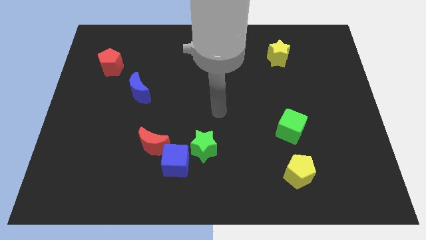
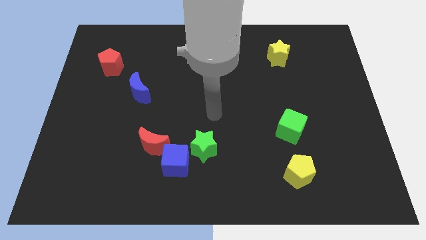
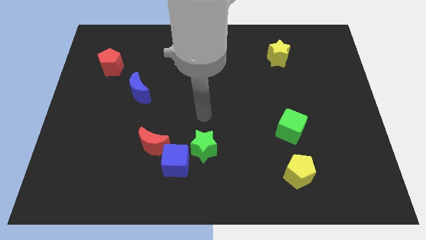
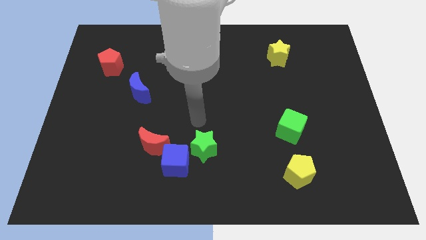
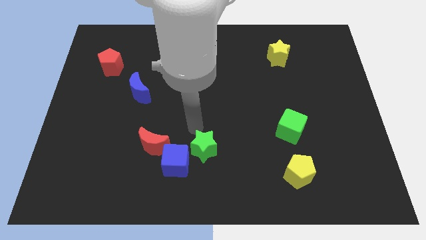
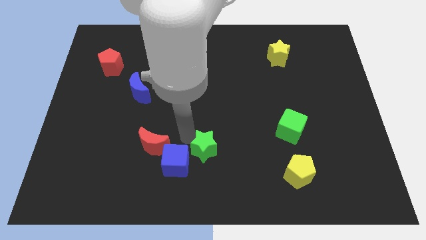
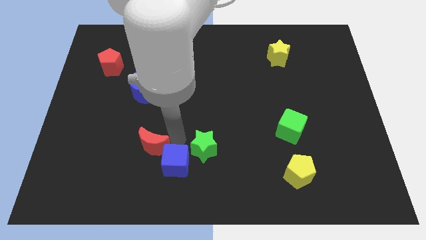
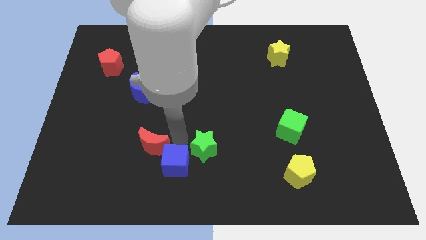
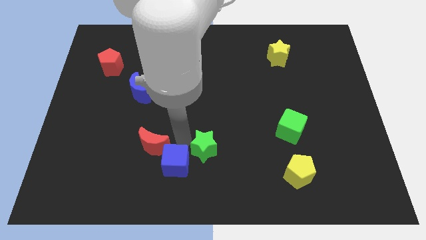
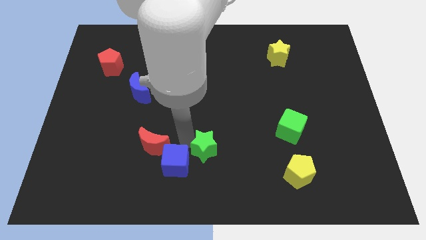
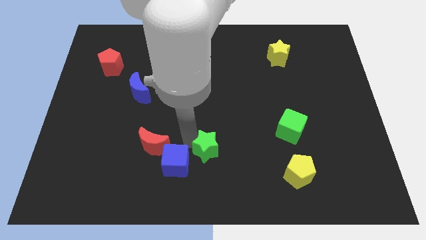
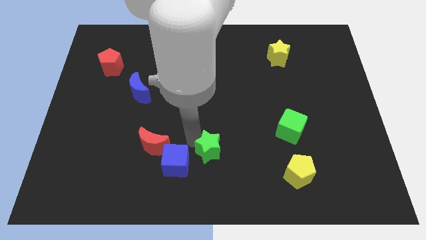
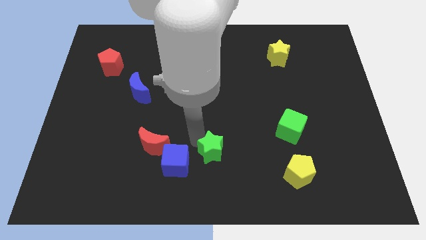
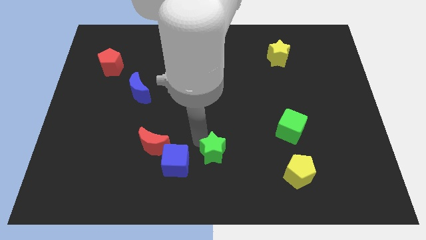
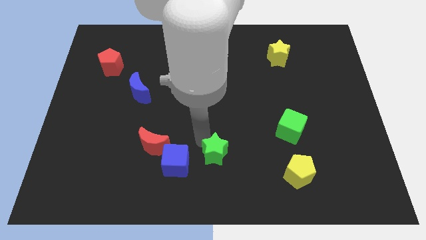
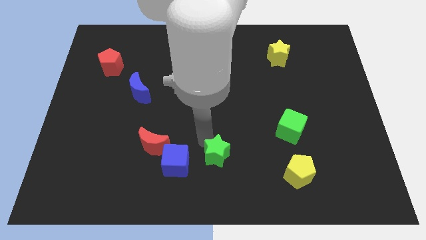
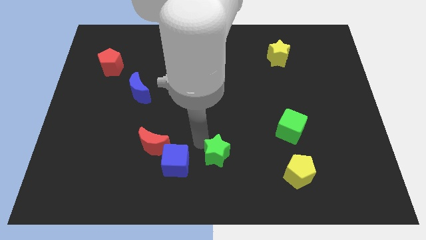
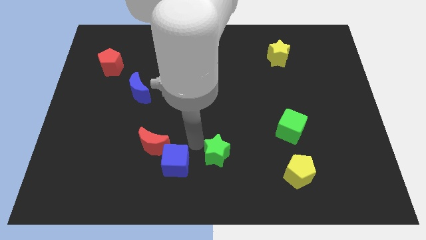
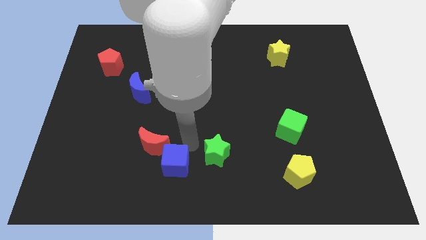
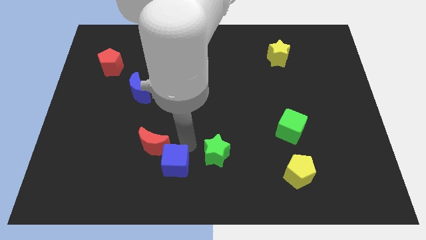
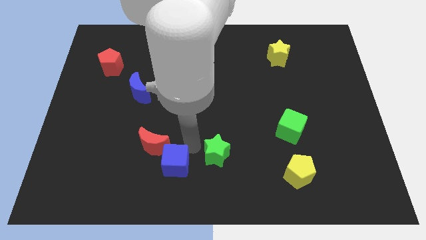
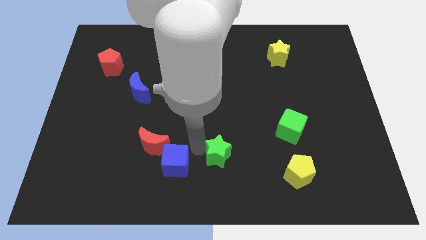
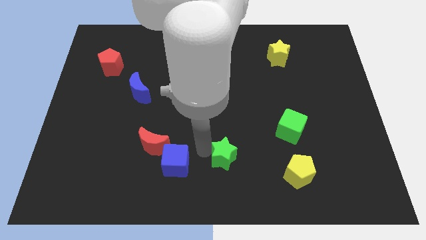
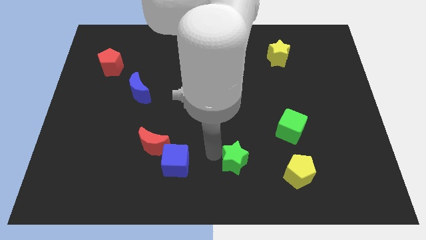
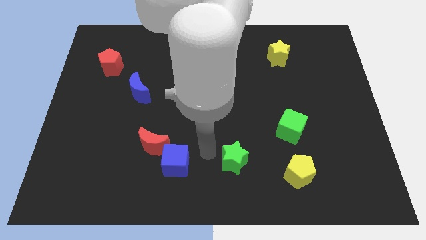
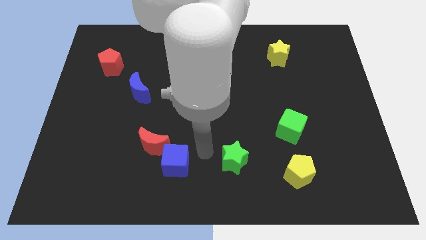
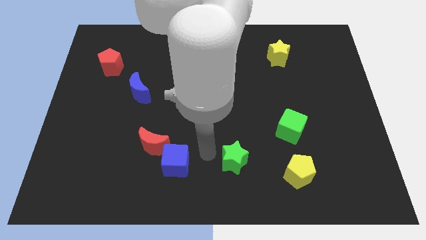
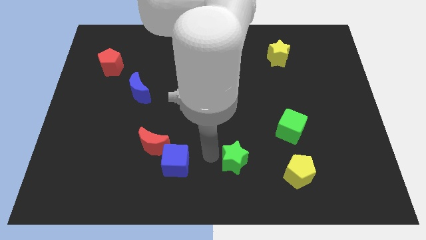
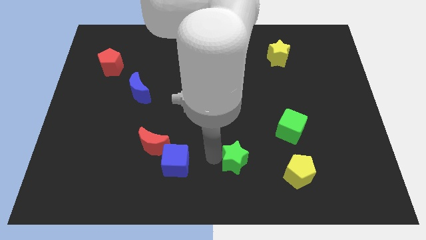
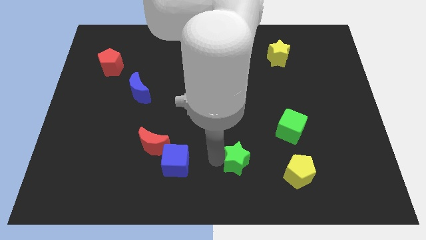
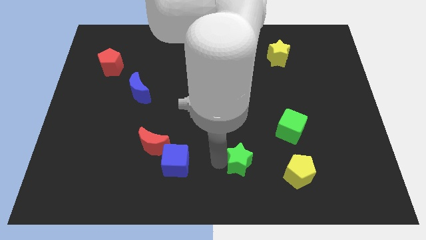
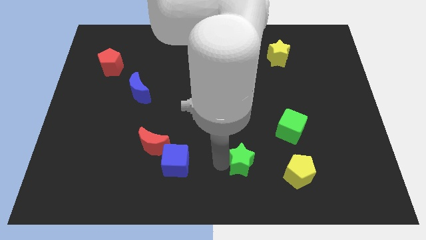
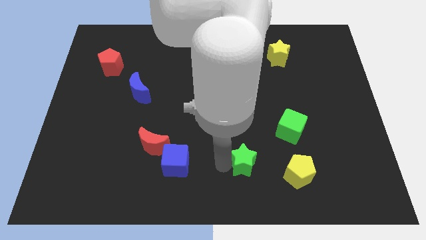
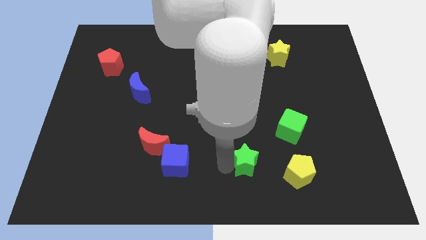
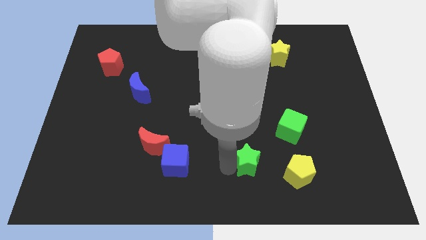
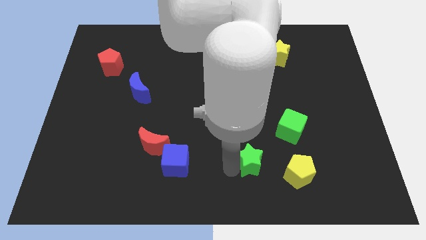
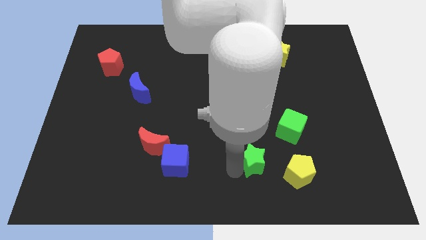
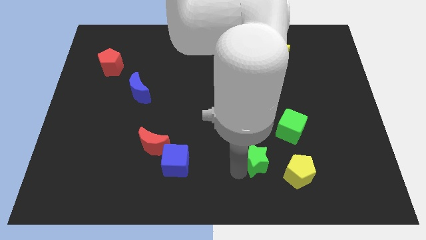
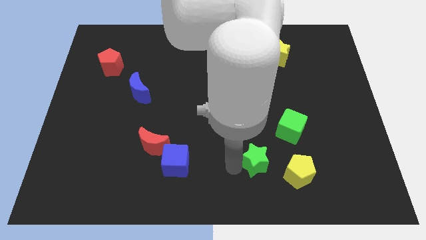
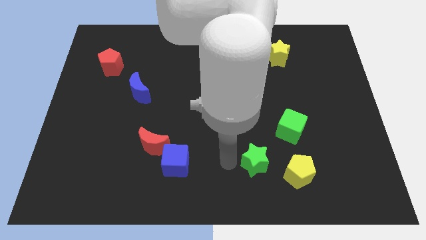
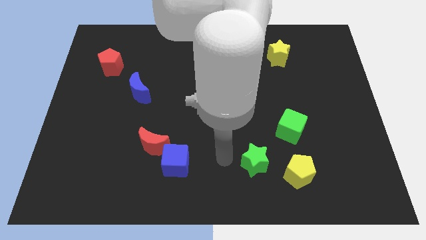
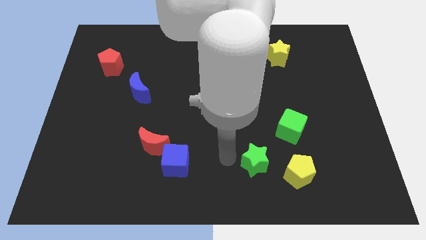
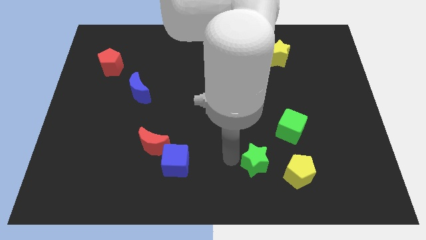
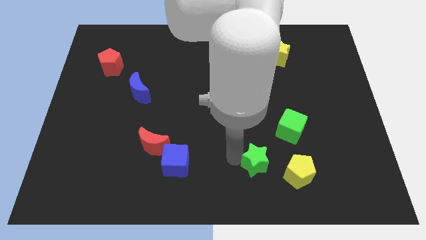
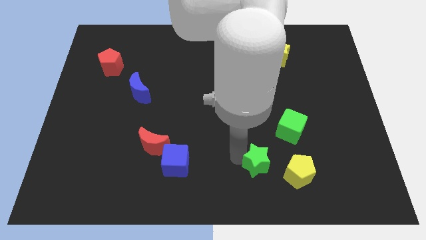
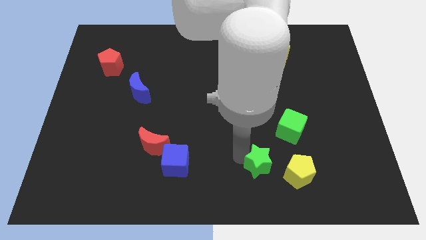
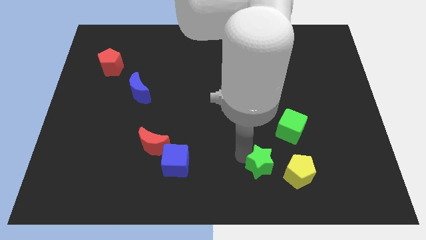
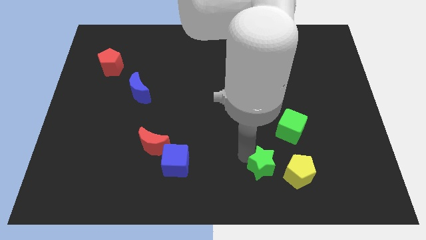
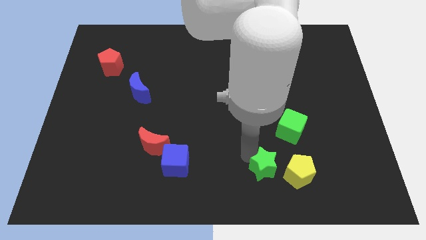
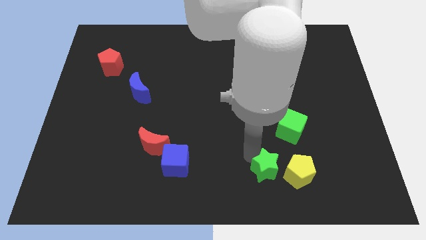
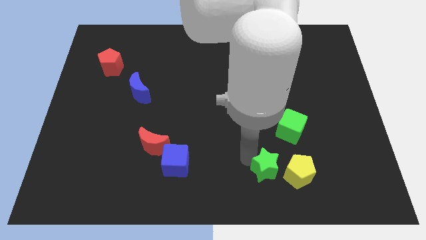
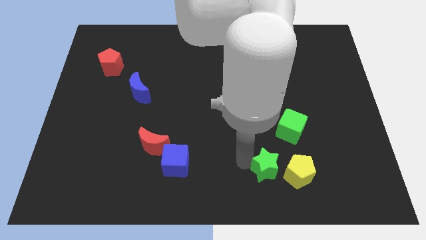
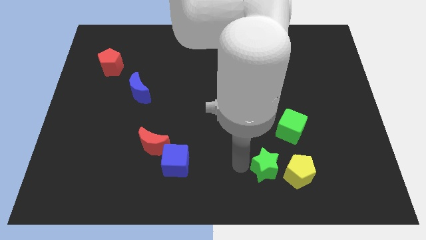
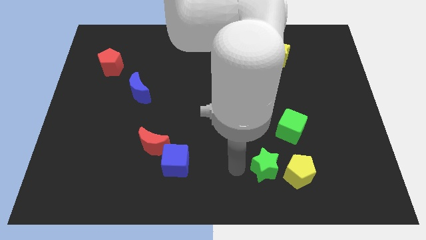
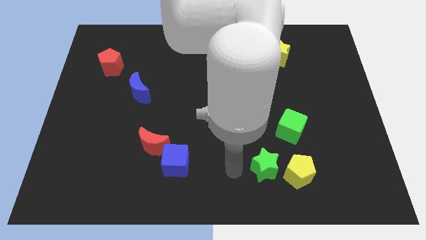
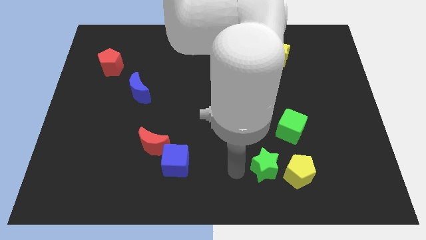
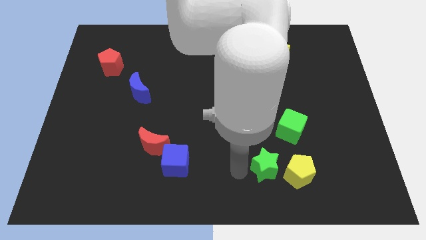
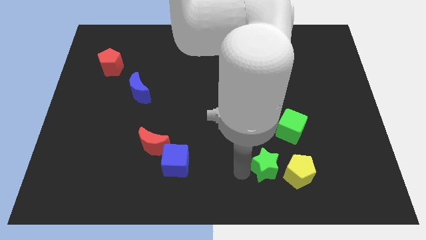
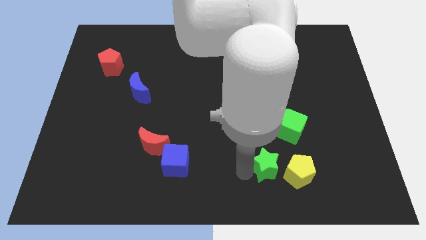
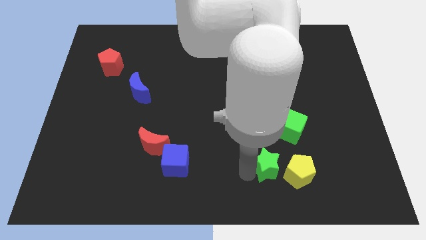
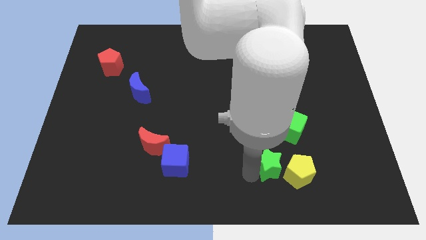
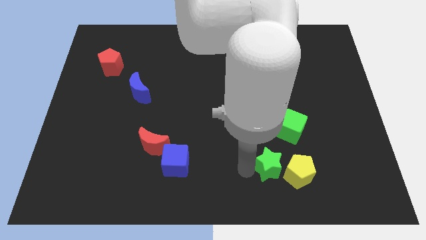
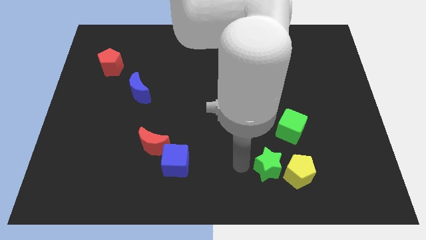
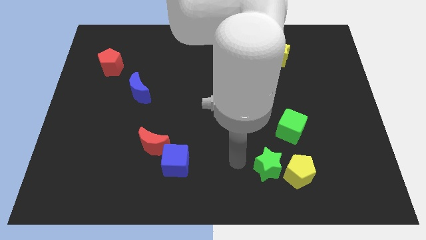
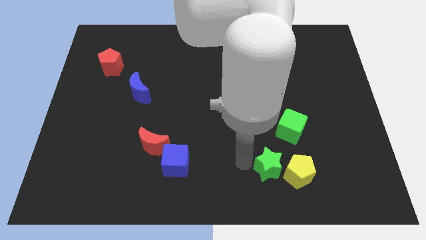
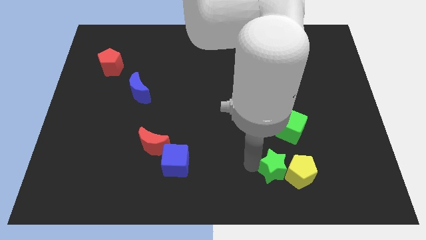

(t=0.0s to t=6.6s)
move the green star towards the yellow pentagon
